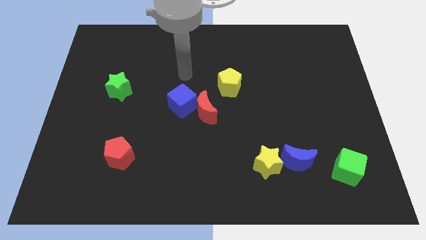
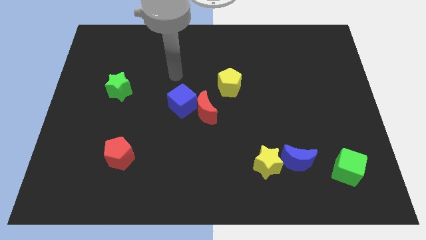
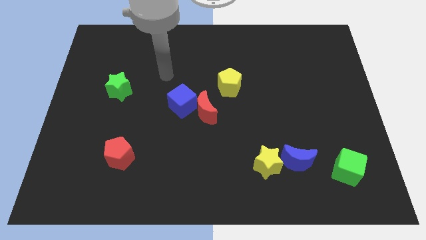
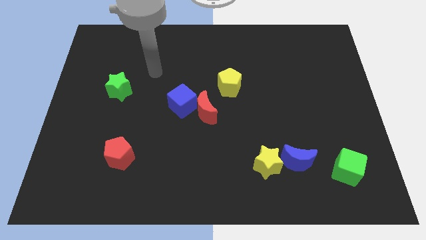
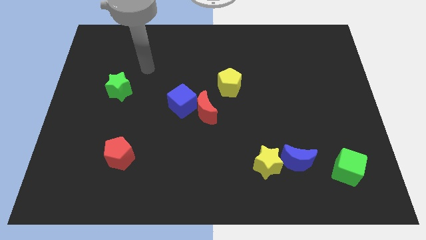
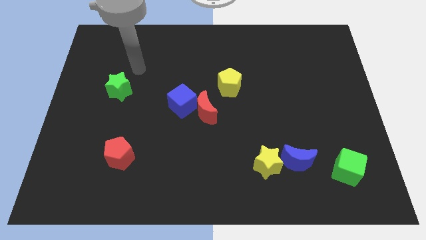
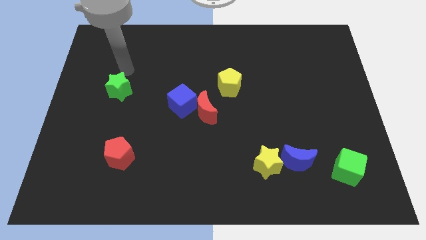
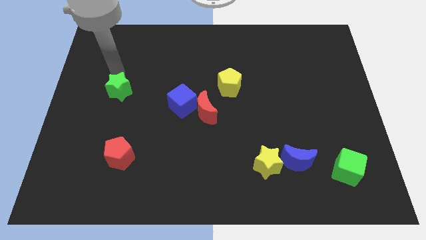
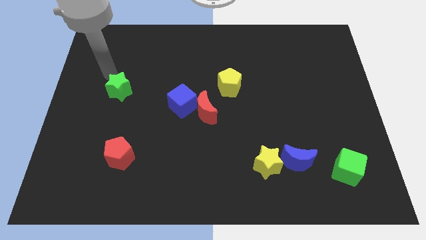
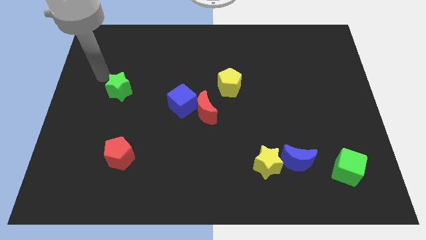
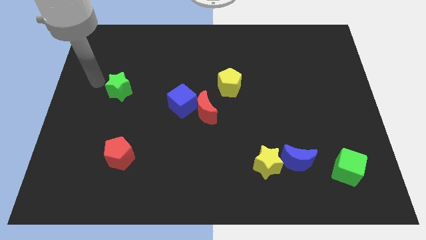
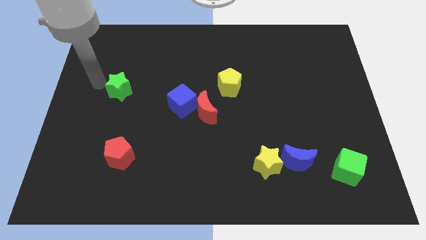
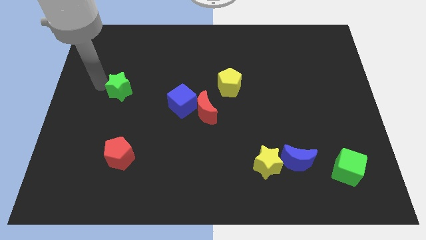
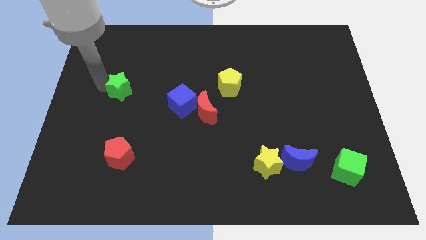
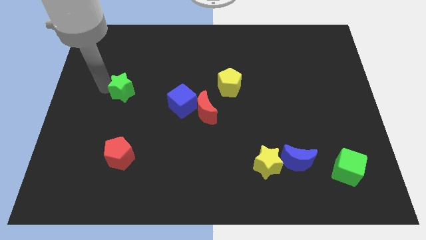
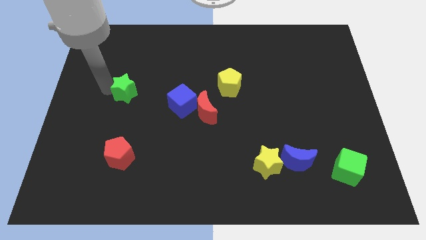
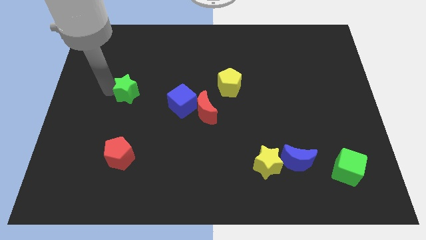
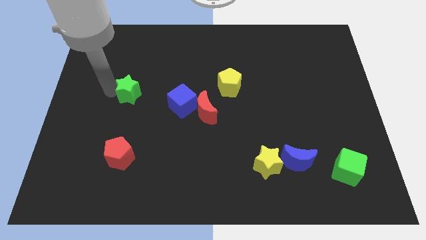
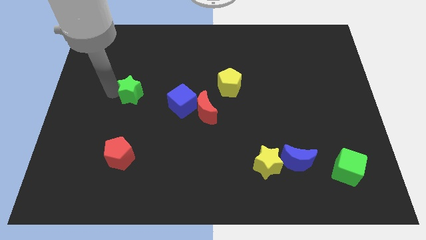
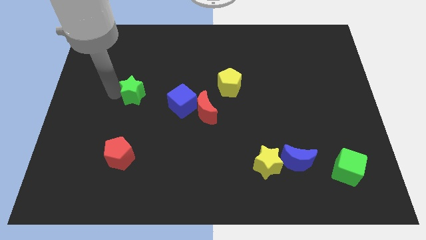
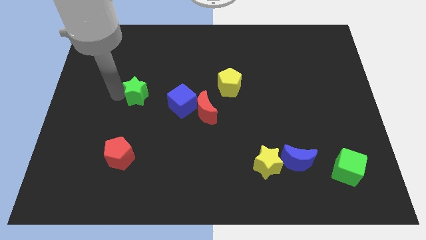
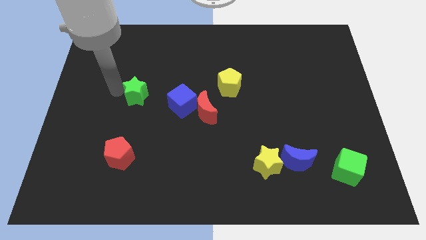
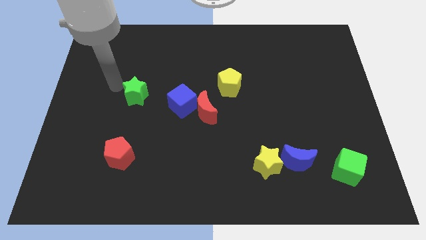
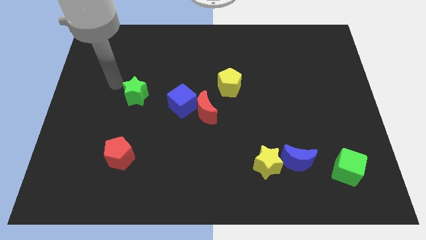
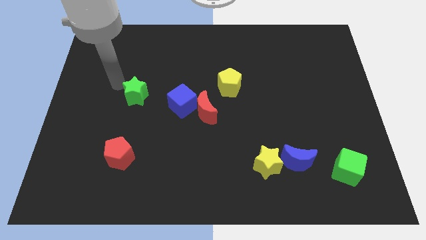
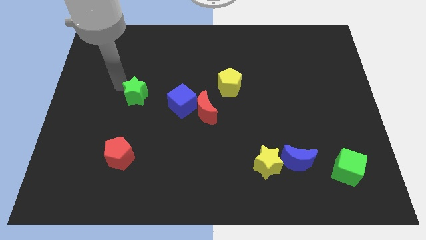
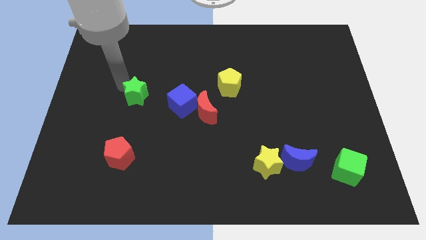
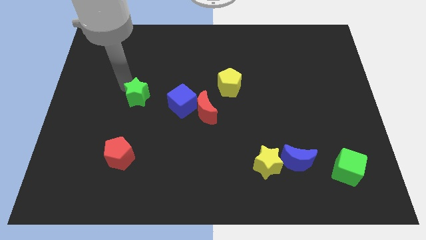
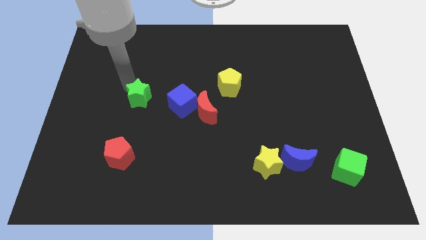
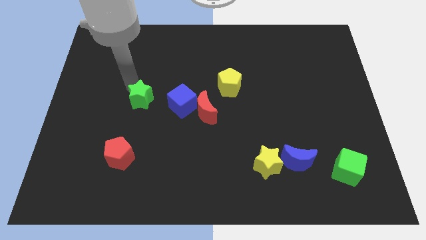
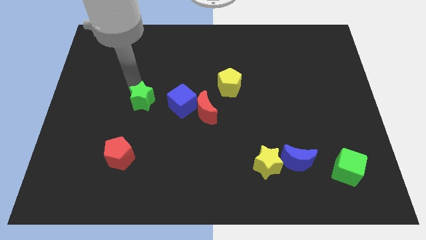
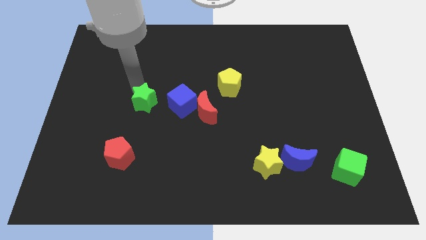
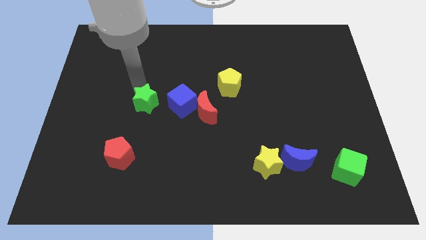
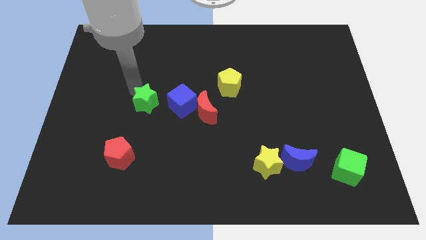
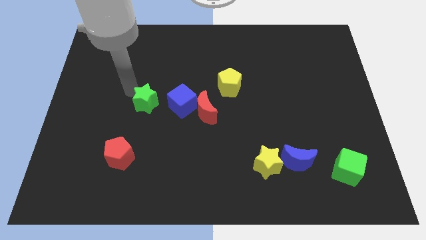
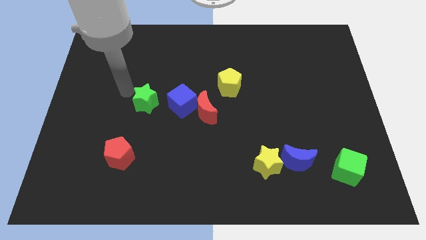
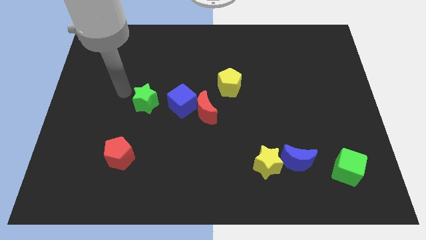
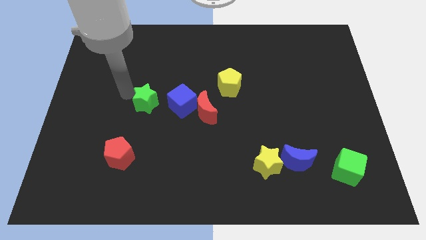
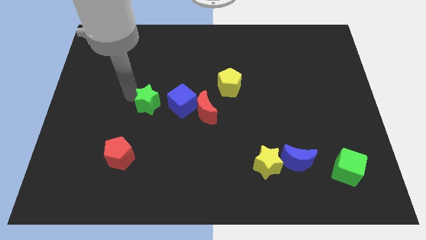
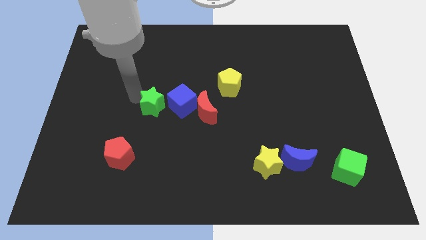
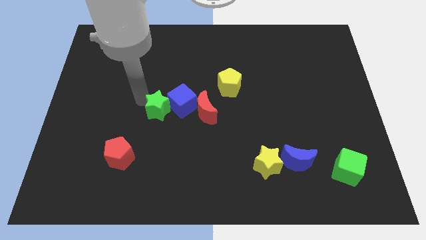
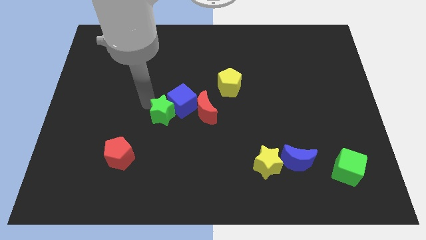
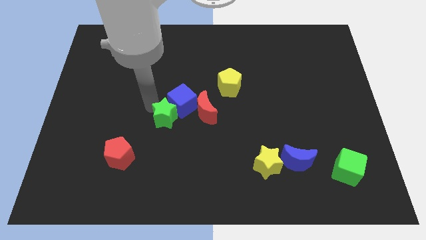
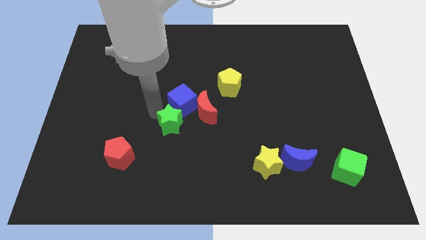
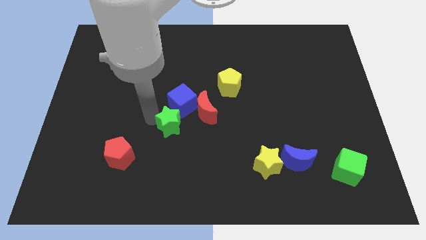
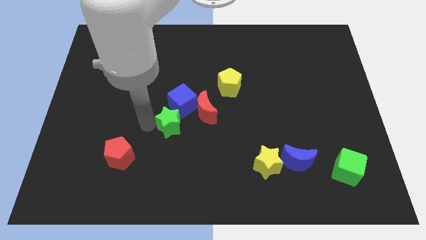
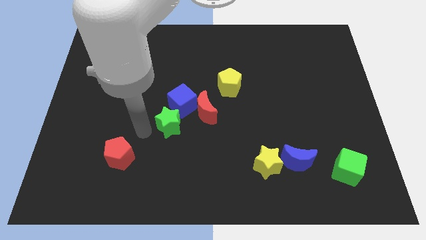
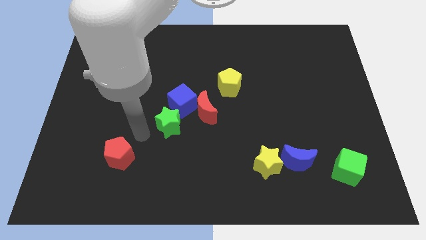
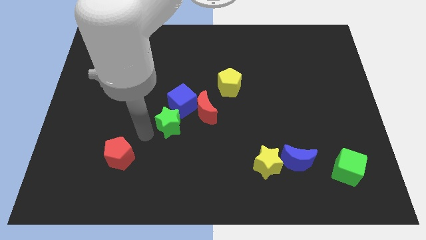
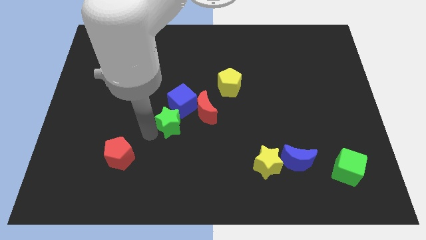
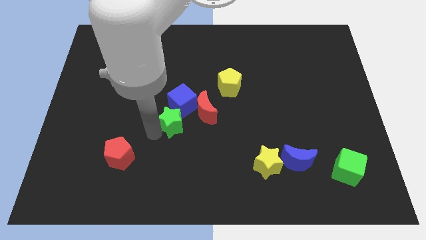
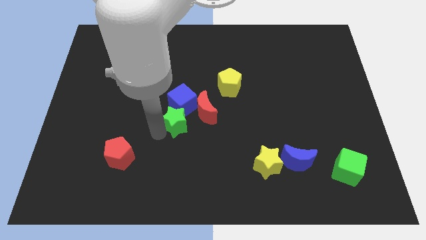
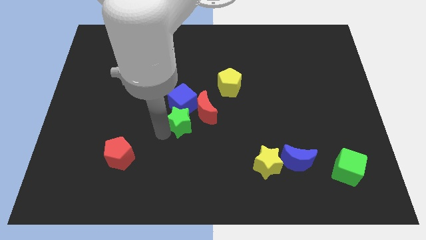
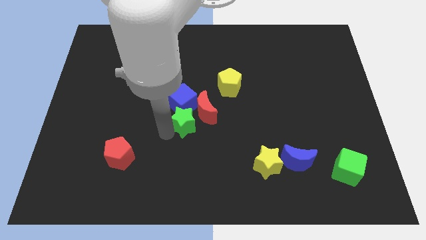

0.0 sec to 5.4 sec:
move the green star close to the red moon

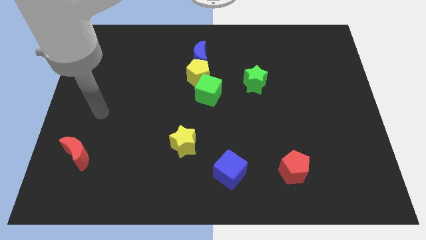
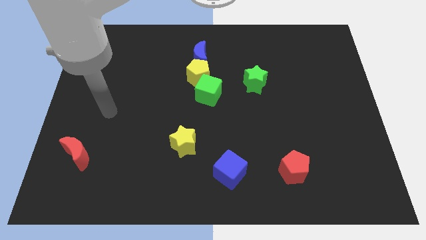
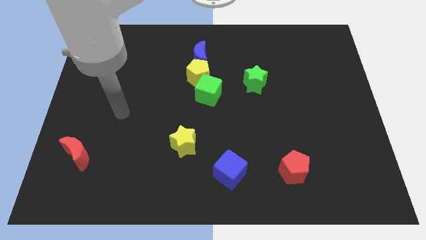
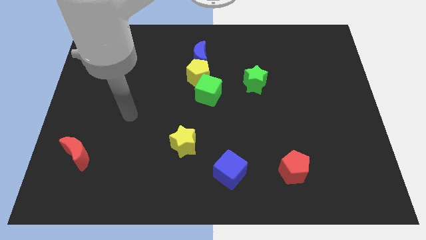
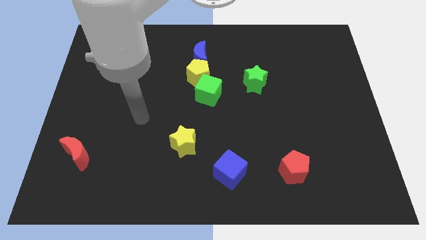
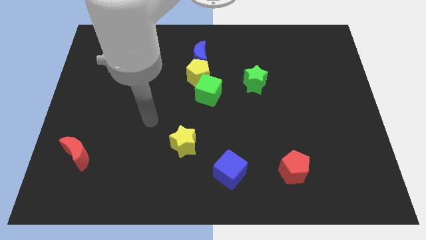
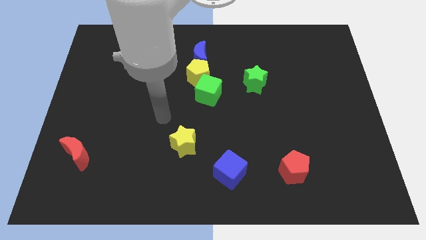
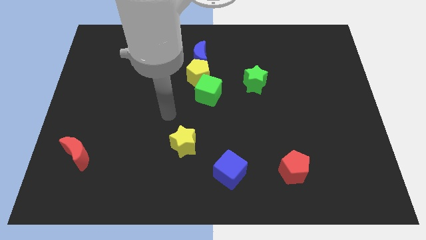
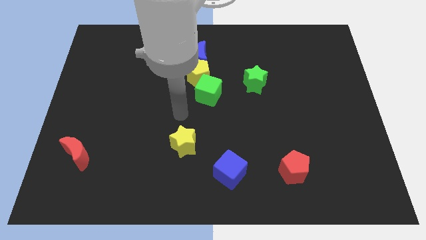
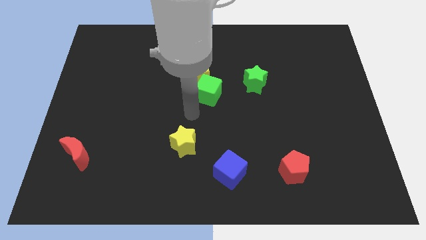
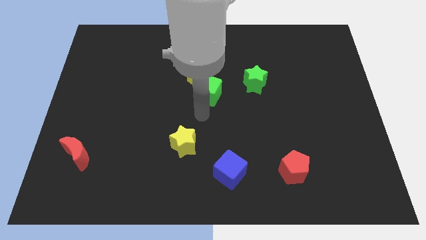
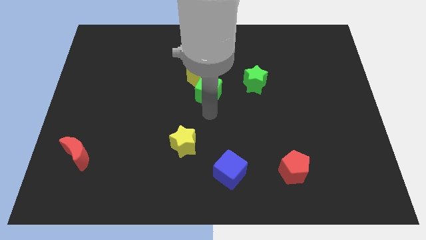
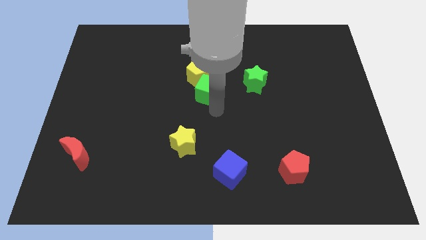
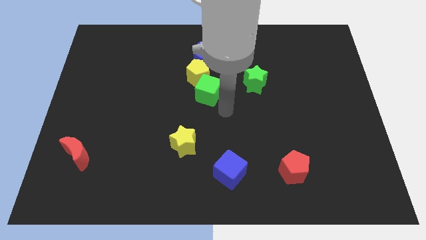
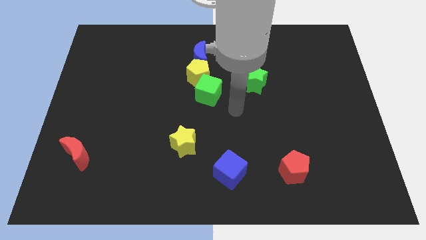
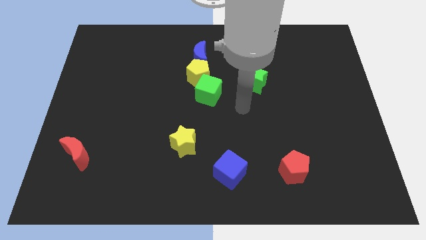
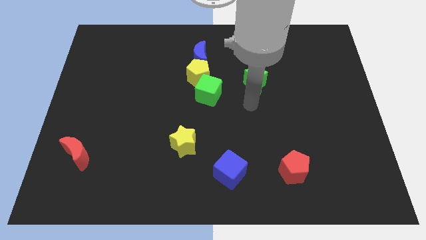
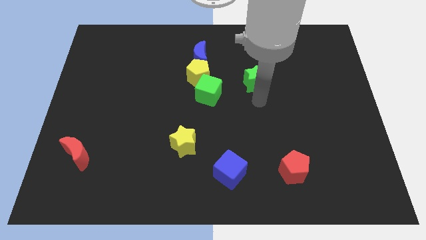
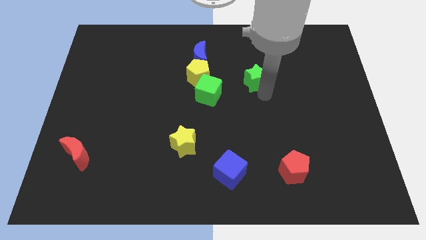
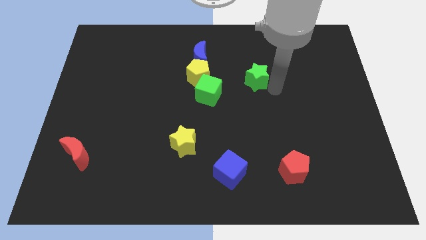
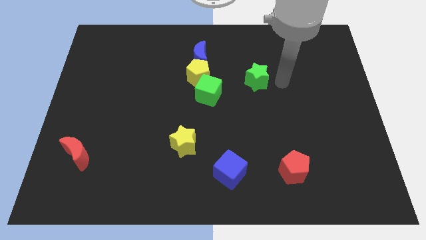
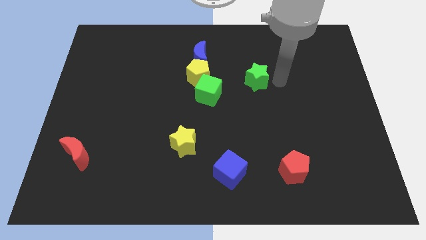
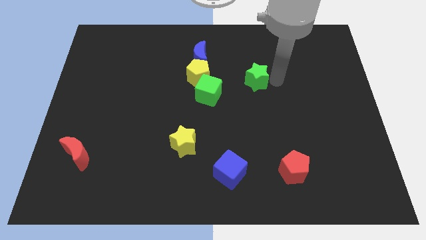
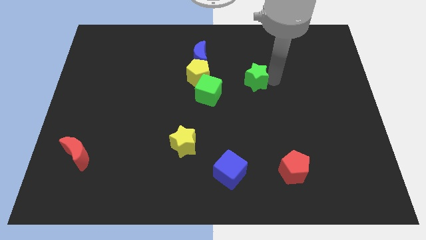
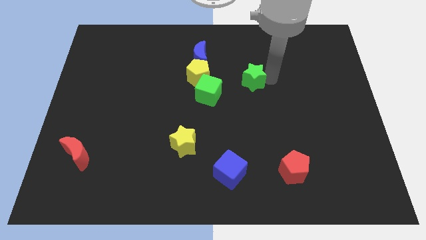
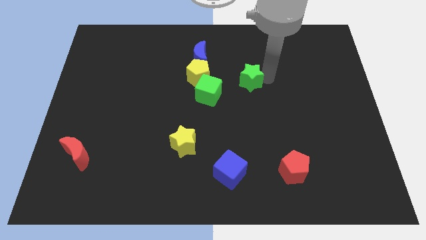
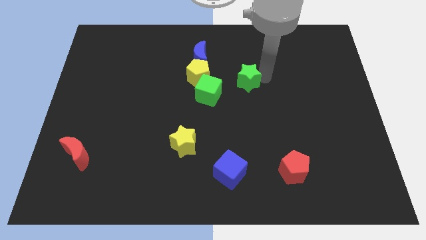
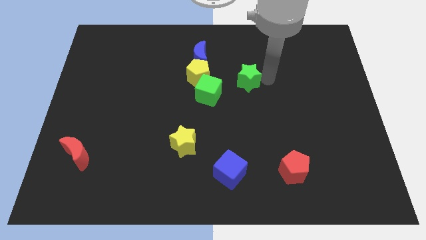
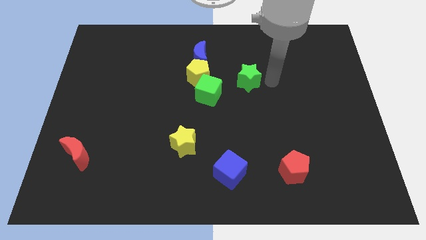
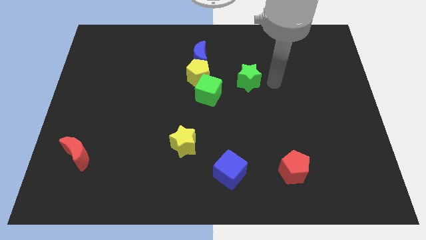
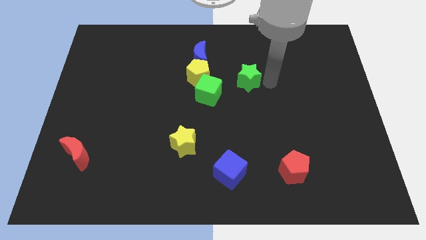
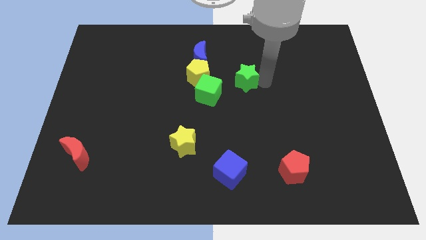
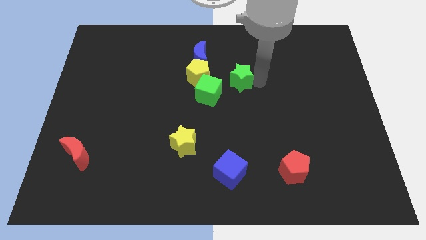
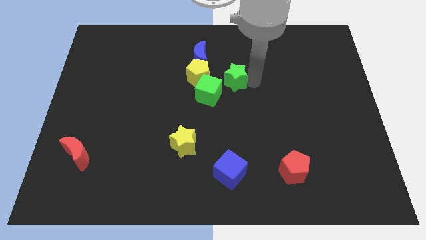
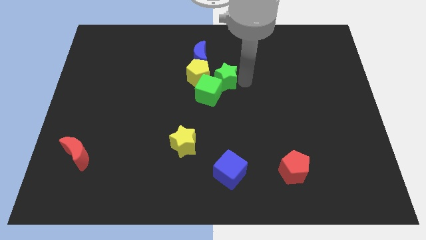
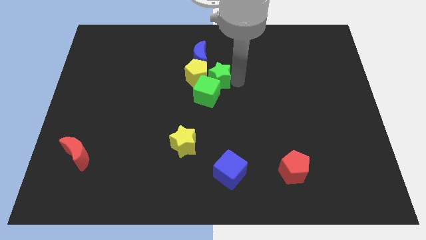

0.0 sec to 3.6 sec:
push the green star close to the yellow pentagon
